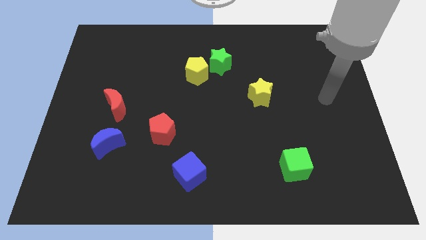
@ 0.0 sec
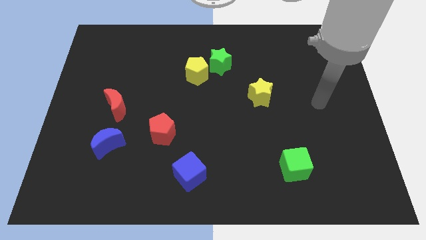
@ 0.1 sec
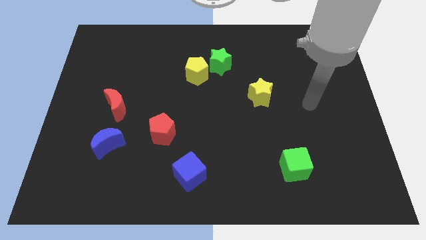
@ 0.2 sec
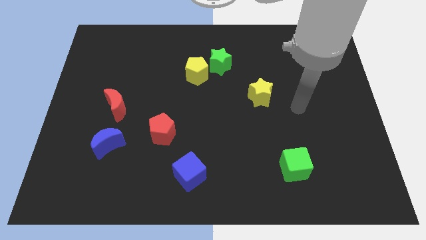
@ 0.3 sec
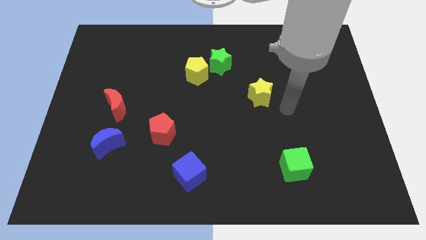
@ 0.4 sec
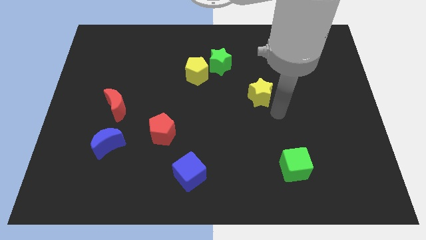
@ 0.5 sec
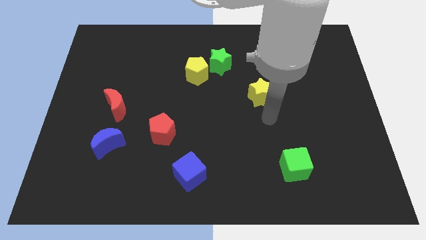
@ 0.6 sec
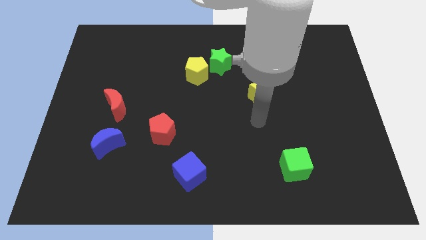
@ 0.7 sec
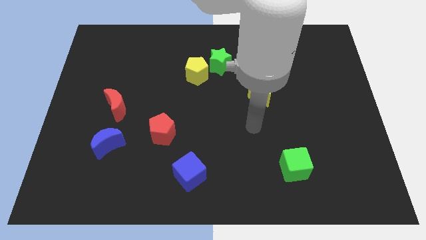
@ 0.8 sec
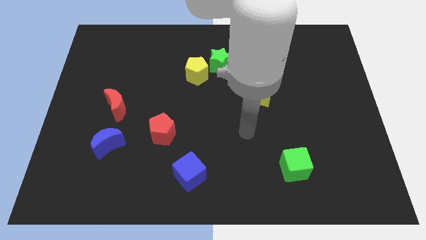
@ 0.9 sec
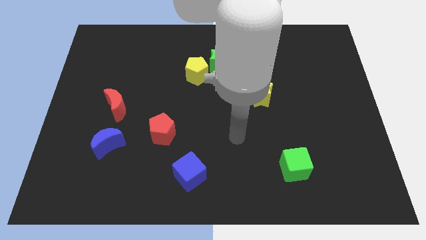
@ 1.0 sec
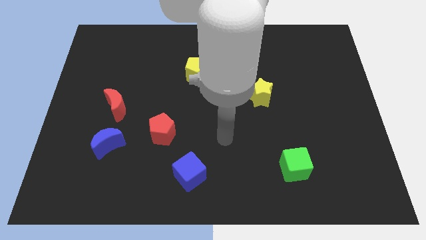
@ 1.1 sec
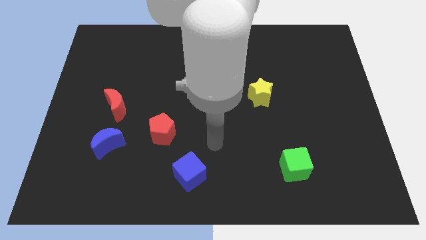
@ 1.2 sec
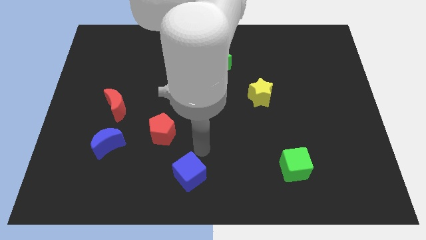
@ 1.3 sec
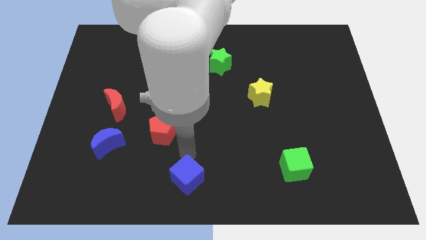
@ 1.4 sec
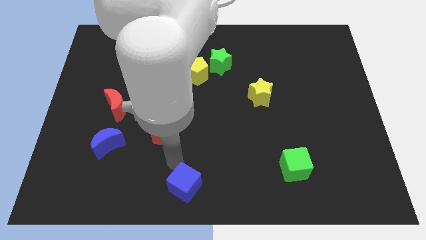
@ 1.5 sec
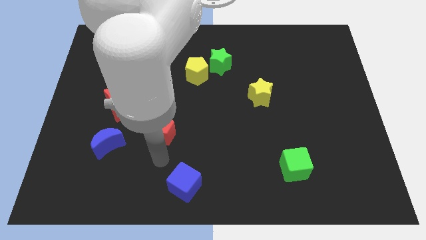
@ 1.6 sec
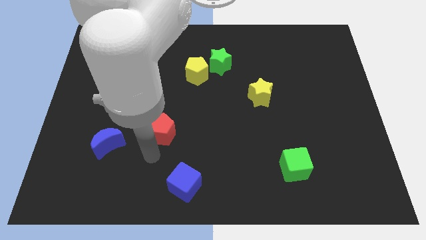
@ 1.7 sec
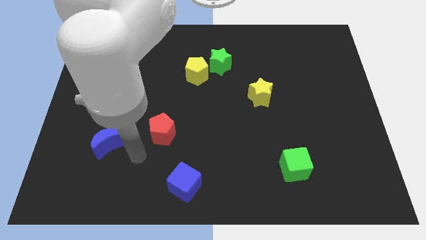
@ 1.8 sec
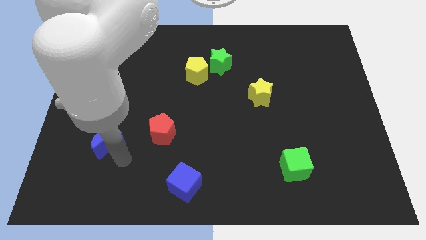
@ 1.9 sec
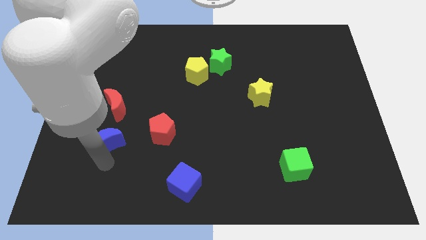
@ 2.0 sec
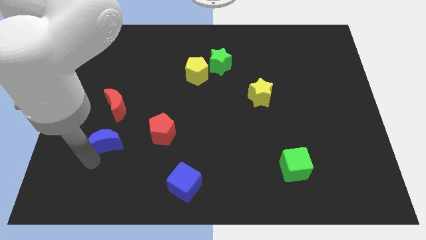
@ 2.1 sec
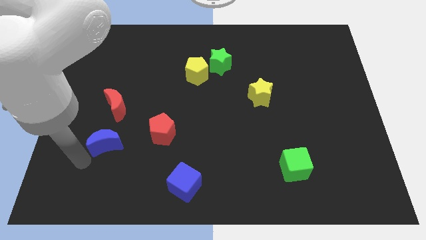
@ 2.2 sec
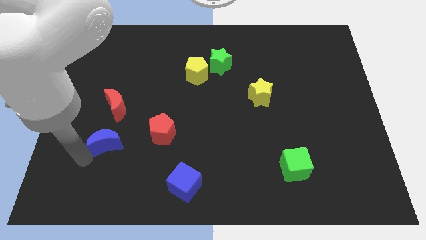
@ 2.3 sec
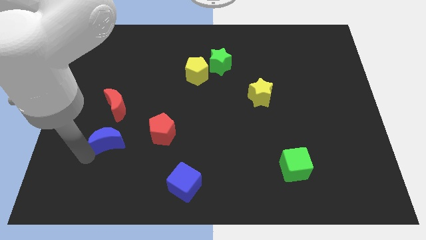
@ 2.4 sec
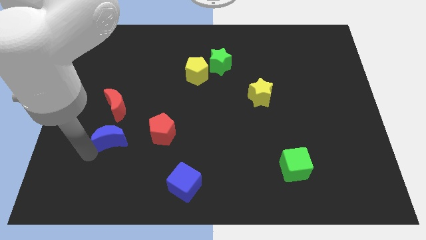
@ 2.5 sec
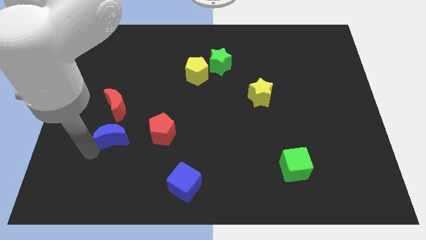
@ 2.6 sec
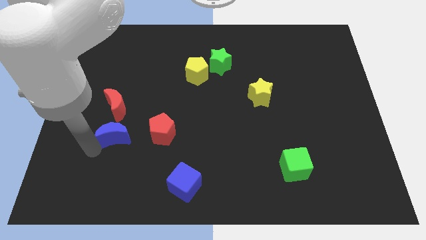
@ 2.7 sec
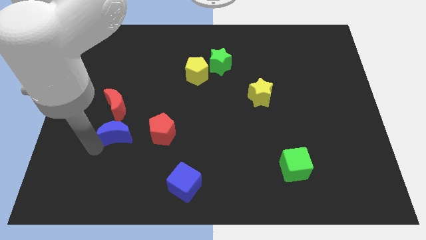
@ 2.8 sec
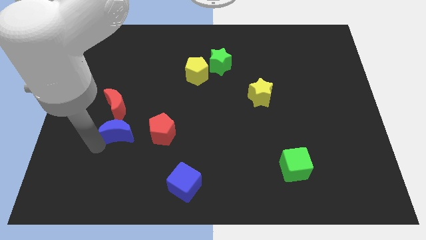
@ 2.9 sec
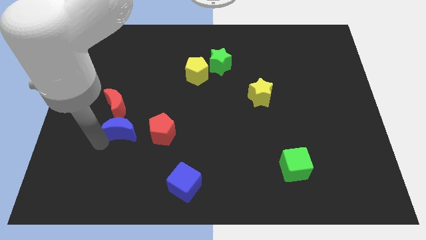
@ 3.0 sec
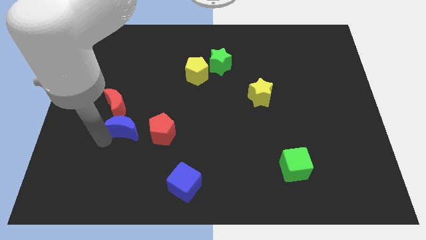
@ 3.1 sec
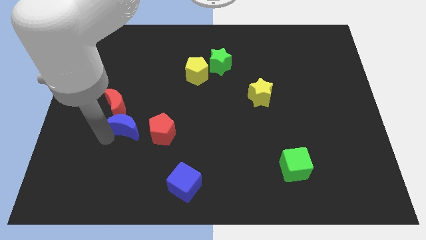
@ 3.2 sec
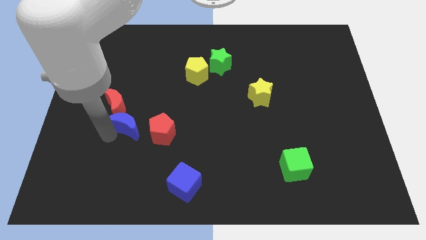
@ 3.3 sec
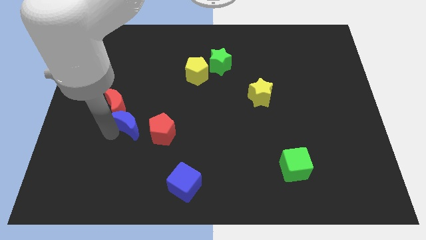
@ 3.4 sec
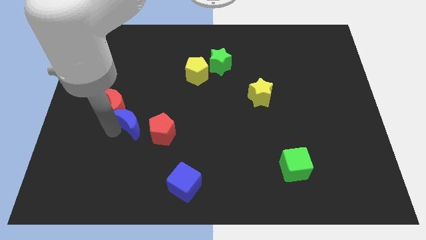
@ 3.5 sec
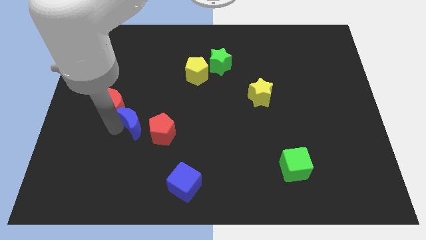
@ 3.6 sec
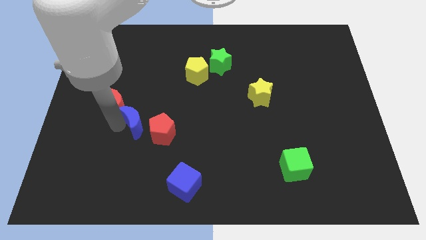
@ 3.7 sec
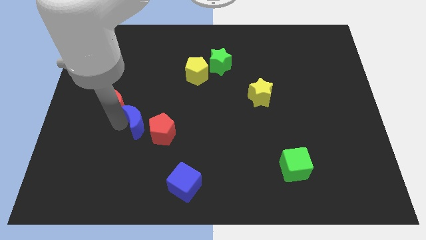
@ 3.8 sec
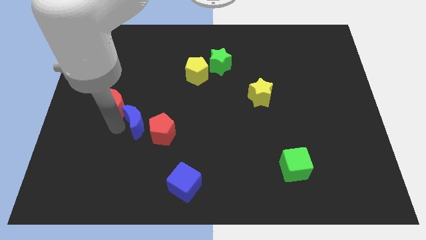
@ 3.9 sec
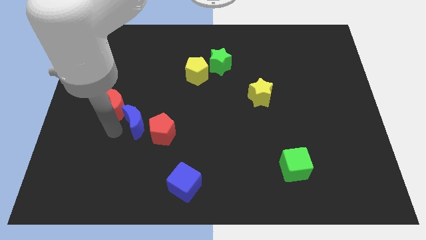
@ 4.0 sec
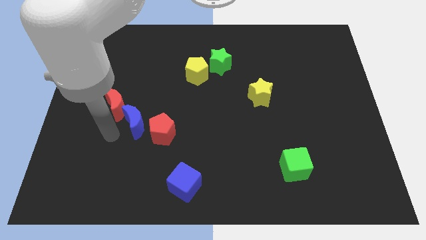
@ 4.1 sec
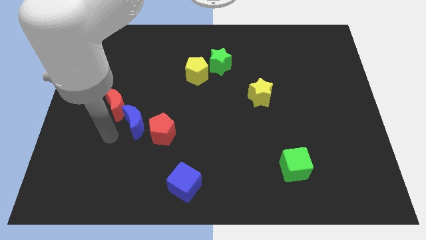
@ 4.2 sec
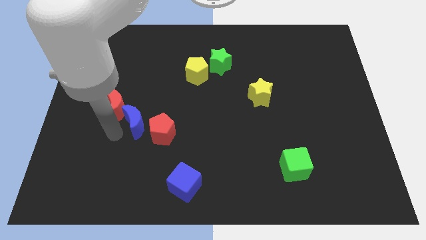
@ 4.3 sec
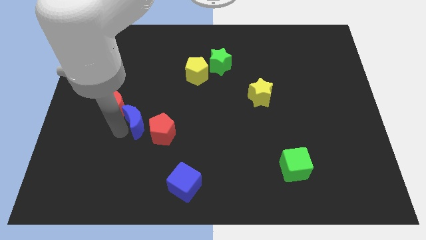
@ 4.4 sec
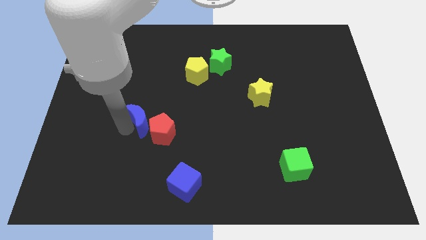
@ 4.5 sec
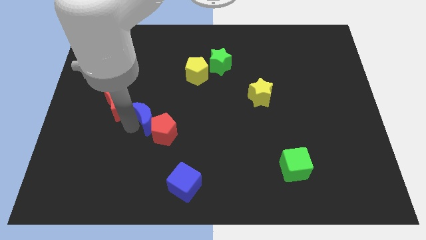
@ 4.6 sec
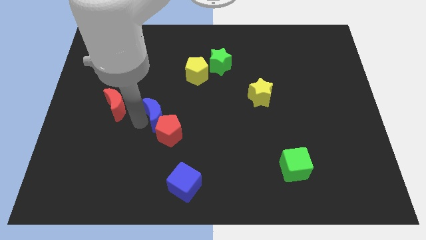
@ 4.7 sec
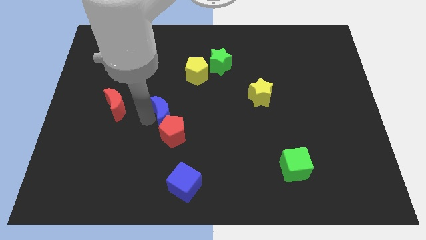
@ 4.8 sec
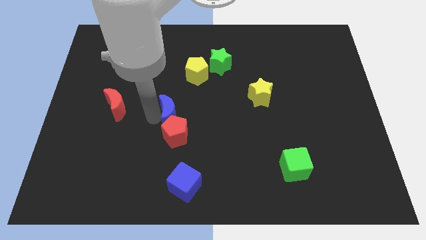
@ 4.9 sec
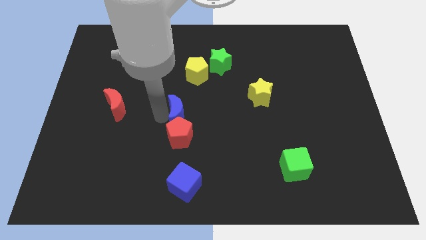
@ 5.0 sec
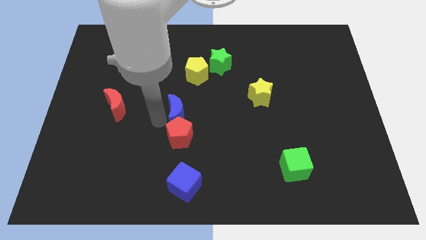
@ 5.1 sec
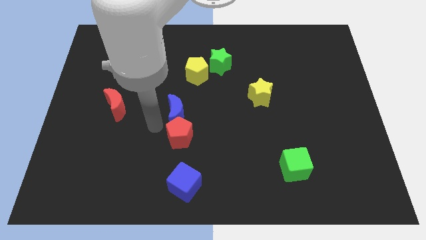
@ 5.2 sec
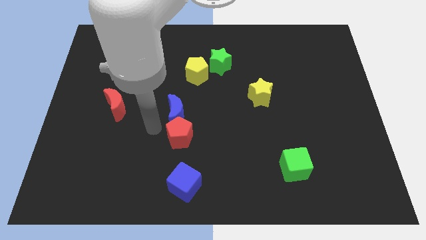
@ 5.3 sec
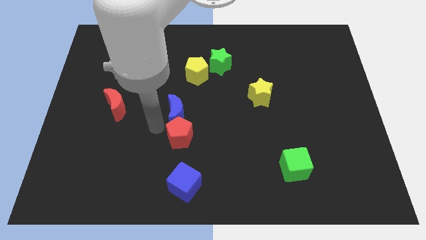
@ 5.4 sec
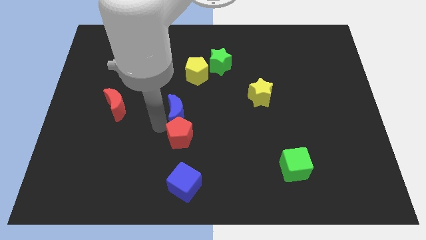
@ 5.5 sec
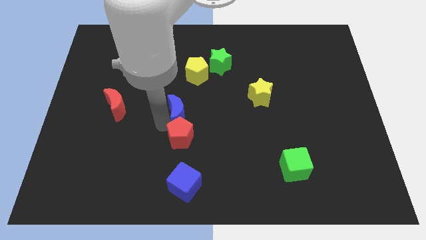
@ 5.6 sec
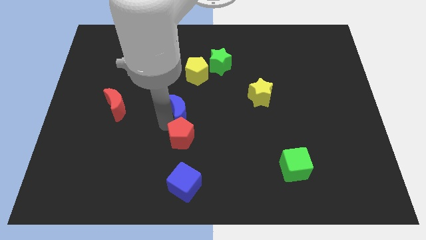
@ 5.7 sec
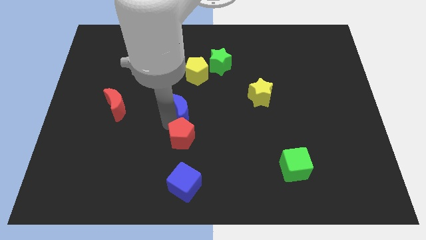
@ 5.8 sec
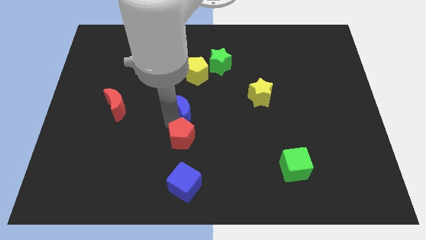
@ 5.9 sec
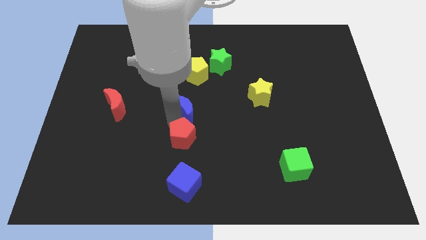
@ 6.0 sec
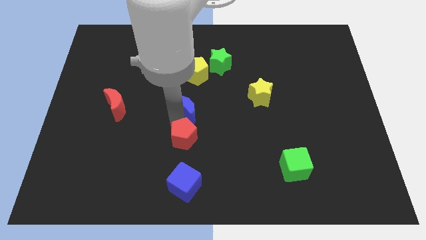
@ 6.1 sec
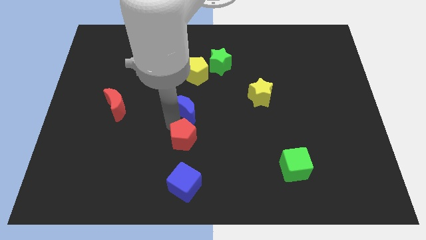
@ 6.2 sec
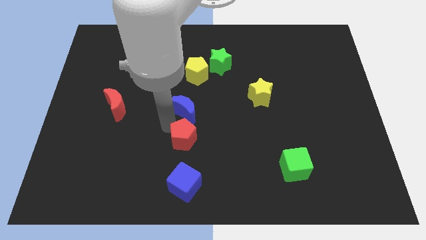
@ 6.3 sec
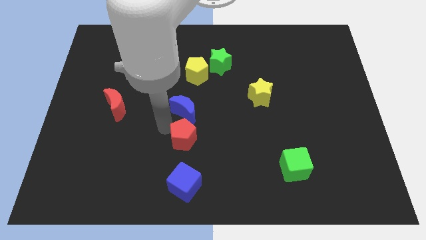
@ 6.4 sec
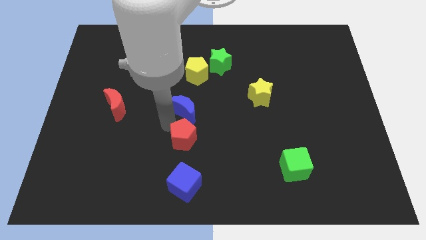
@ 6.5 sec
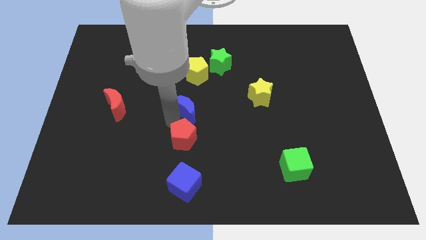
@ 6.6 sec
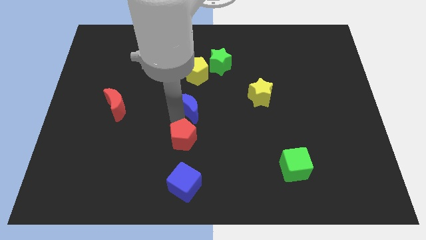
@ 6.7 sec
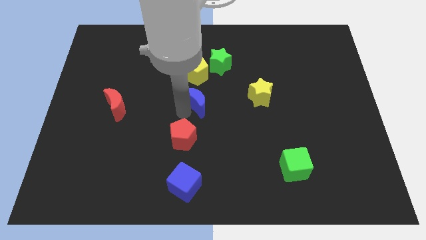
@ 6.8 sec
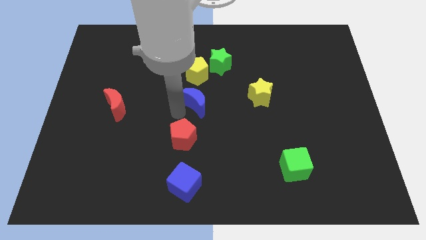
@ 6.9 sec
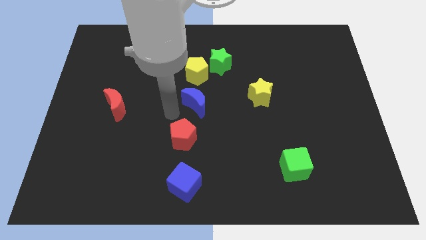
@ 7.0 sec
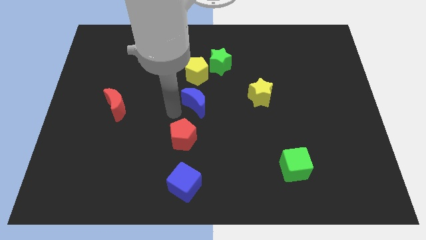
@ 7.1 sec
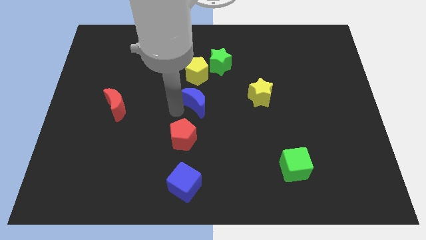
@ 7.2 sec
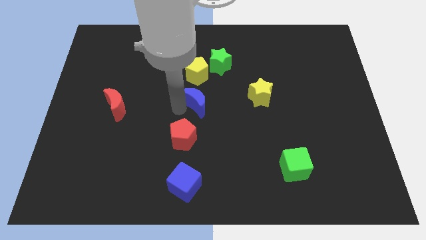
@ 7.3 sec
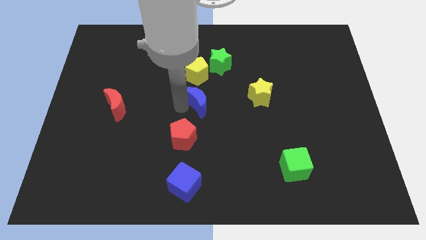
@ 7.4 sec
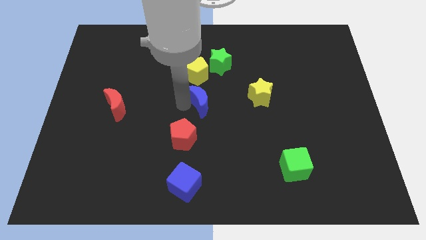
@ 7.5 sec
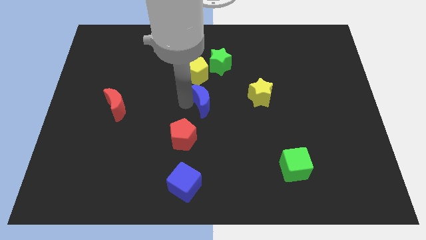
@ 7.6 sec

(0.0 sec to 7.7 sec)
slide the blue moon to the bottom of the green star

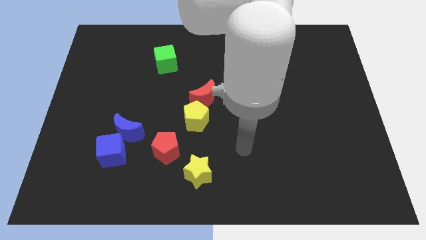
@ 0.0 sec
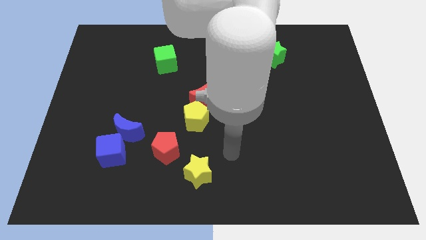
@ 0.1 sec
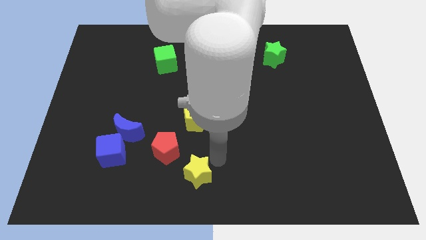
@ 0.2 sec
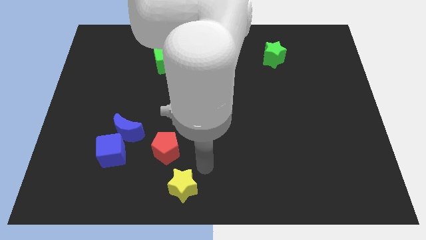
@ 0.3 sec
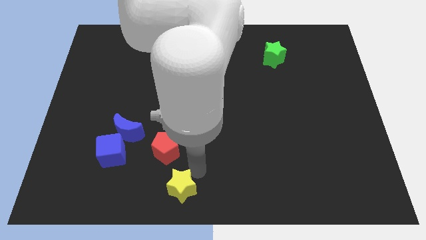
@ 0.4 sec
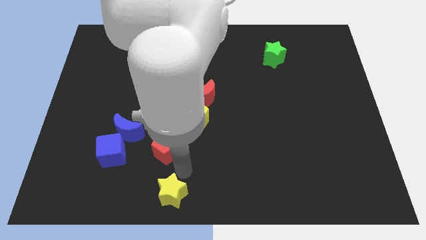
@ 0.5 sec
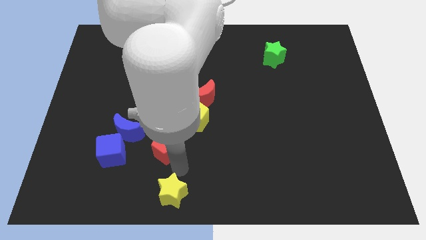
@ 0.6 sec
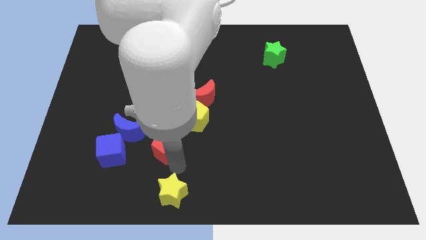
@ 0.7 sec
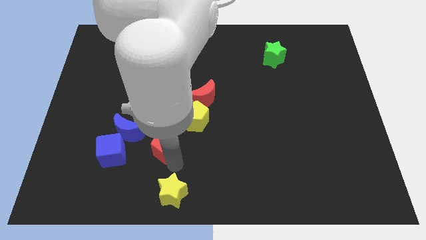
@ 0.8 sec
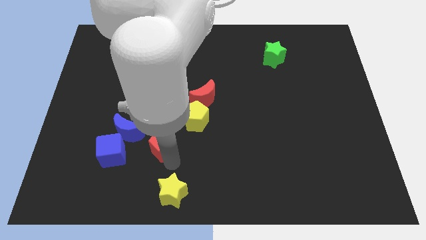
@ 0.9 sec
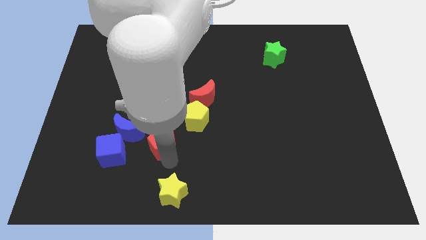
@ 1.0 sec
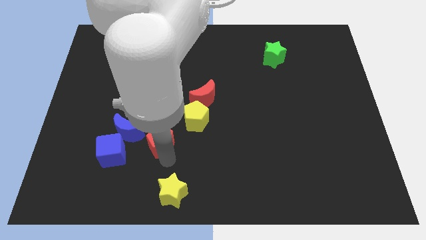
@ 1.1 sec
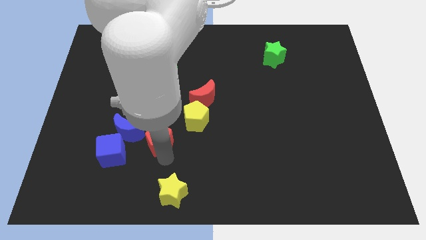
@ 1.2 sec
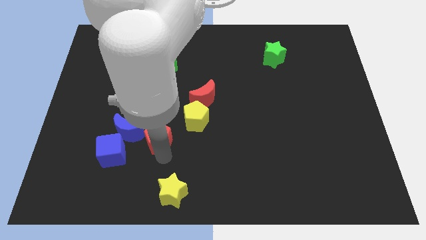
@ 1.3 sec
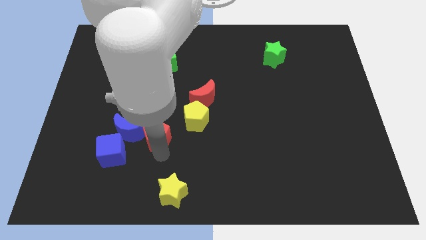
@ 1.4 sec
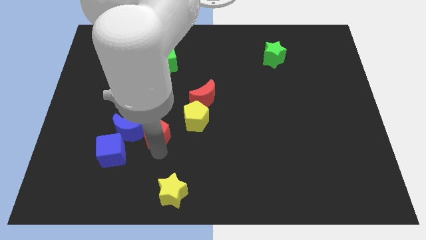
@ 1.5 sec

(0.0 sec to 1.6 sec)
put the red pentagon to the left side of the yellow pentagon
